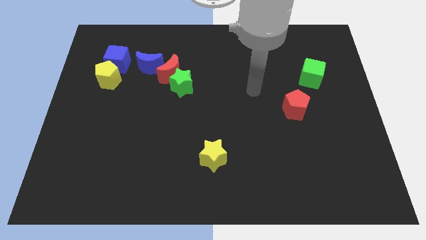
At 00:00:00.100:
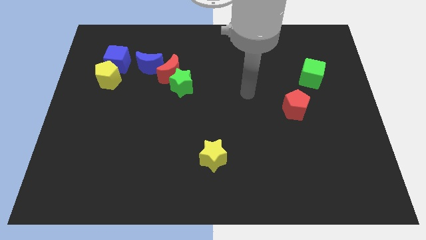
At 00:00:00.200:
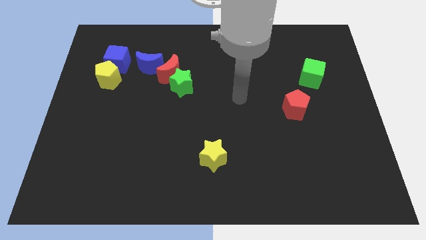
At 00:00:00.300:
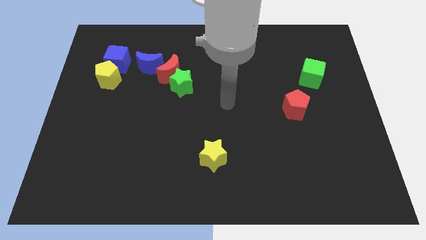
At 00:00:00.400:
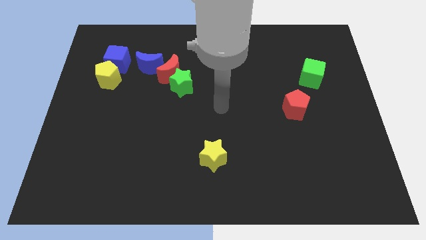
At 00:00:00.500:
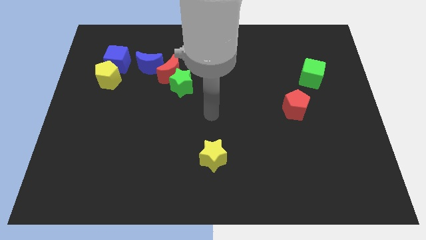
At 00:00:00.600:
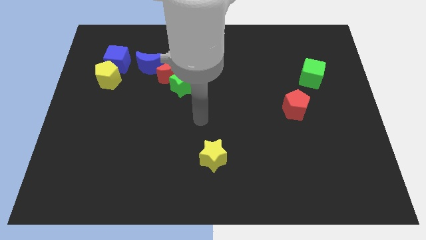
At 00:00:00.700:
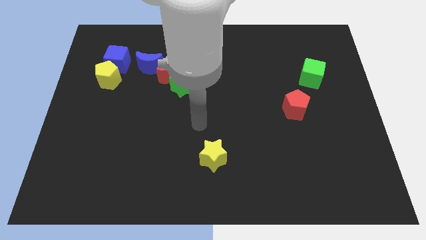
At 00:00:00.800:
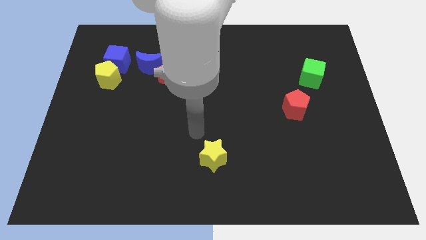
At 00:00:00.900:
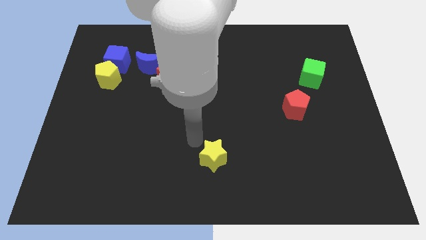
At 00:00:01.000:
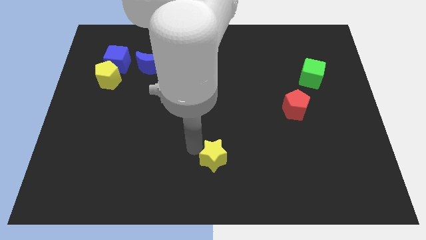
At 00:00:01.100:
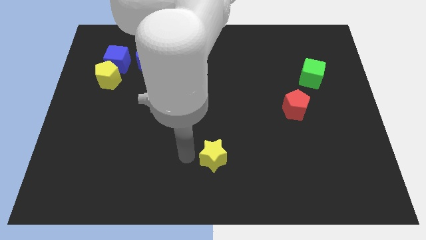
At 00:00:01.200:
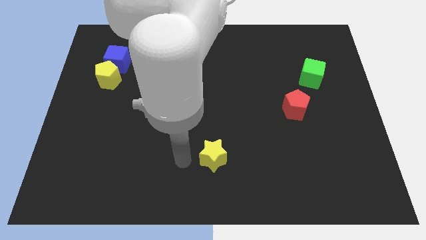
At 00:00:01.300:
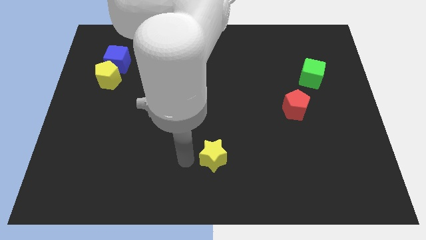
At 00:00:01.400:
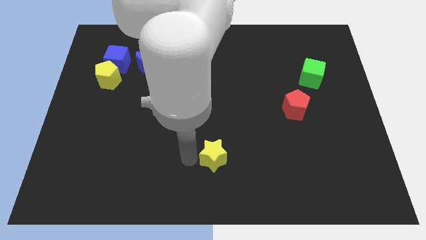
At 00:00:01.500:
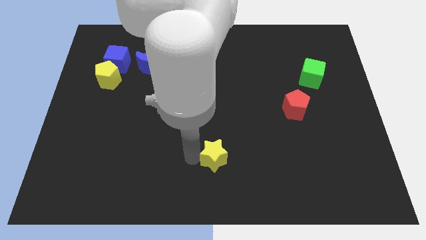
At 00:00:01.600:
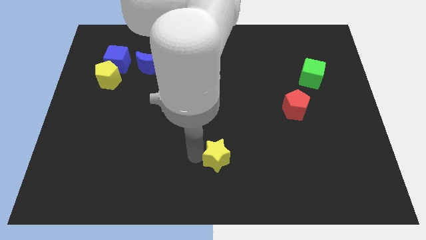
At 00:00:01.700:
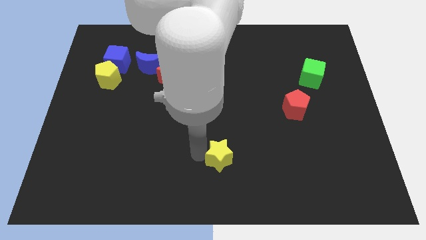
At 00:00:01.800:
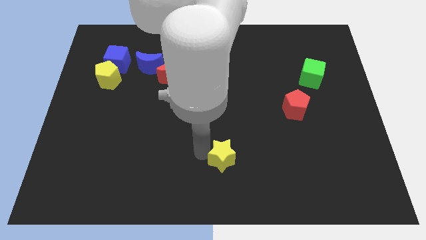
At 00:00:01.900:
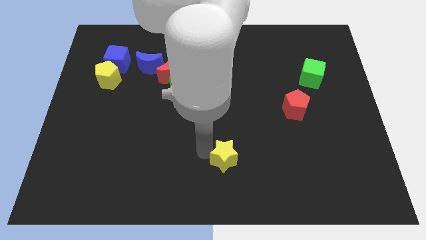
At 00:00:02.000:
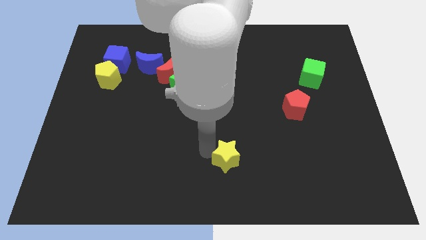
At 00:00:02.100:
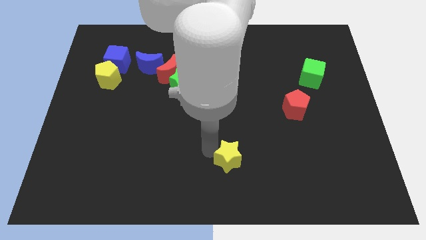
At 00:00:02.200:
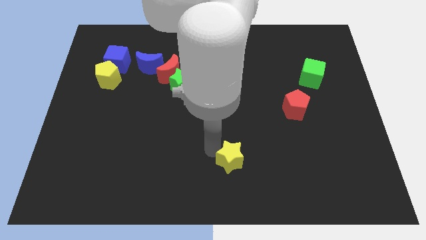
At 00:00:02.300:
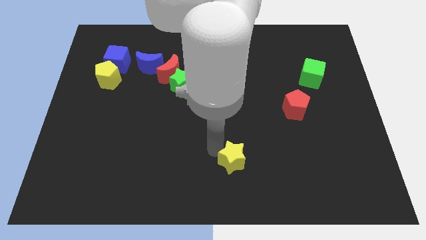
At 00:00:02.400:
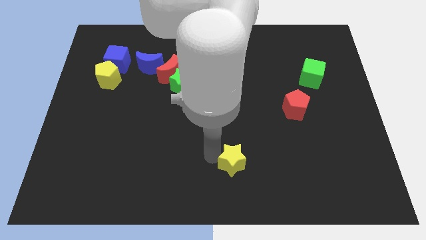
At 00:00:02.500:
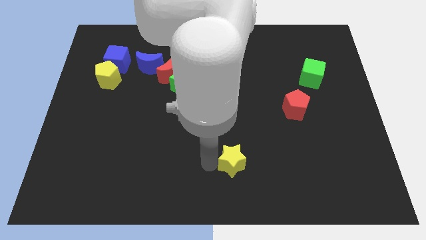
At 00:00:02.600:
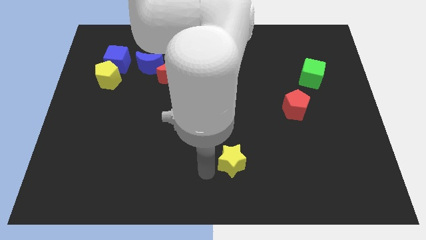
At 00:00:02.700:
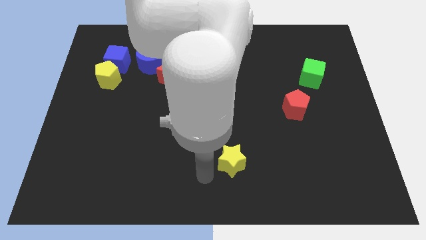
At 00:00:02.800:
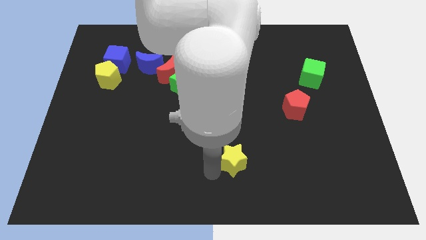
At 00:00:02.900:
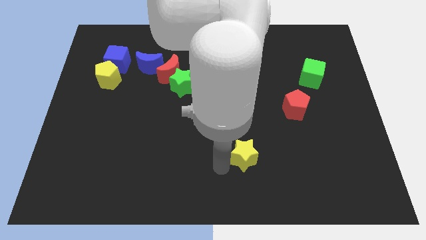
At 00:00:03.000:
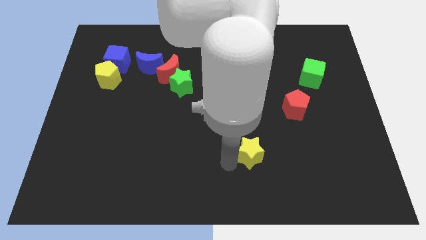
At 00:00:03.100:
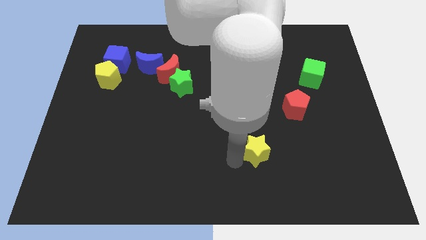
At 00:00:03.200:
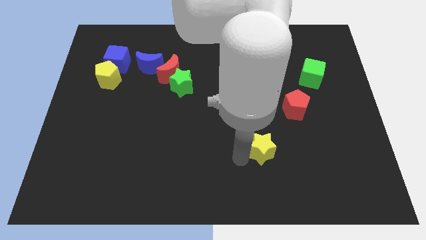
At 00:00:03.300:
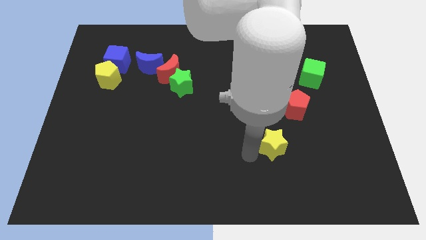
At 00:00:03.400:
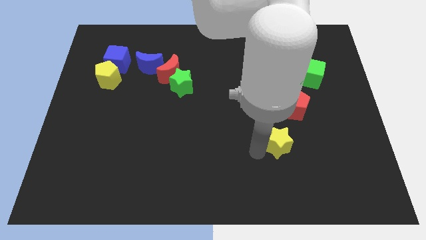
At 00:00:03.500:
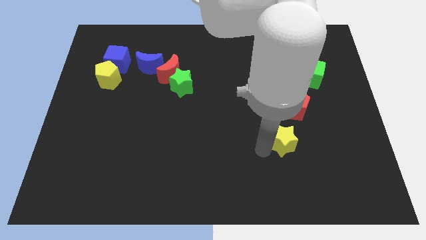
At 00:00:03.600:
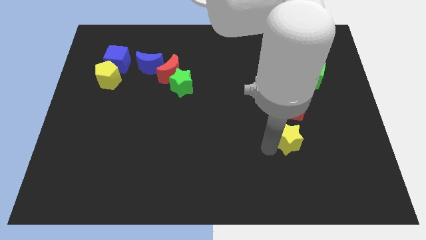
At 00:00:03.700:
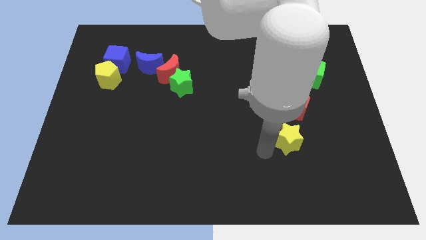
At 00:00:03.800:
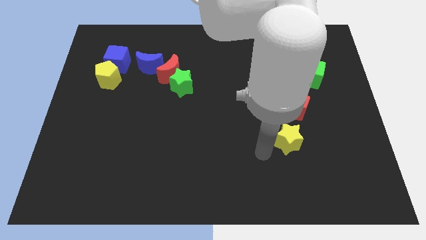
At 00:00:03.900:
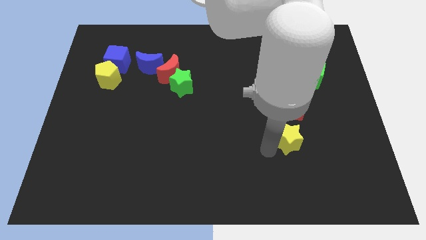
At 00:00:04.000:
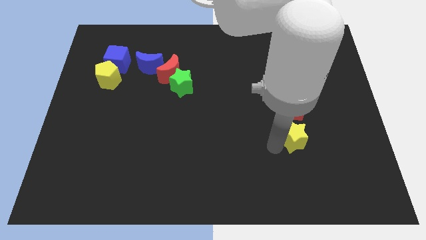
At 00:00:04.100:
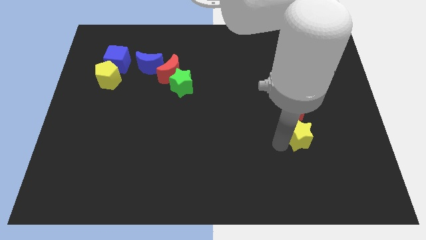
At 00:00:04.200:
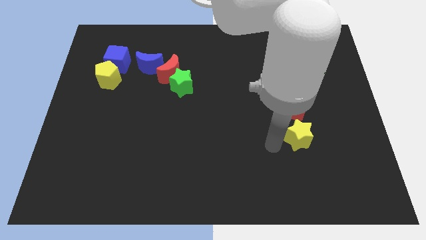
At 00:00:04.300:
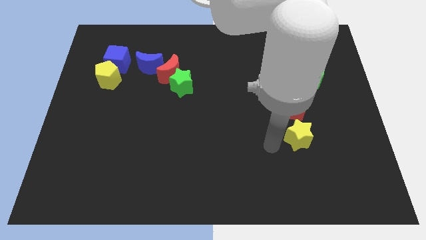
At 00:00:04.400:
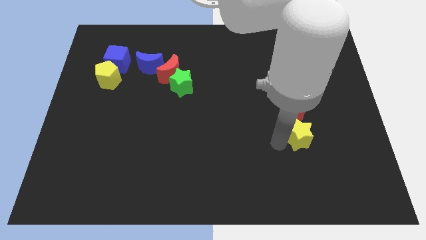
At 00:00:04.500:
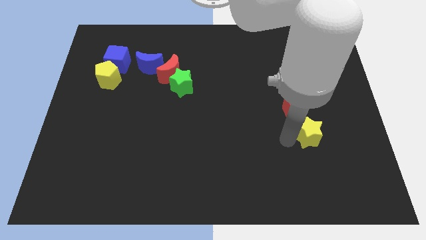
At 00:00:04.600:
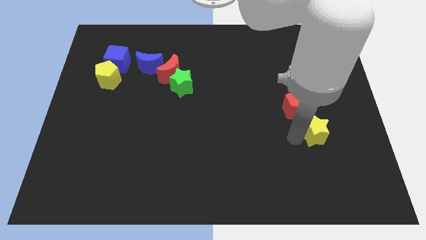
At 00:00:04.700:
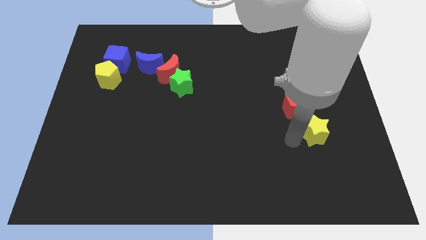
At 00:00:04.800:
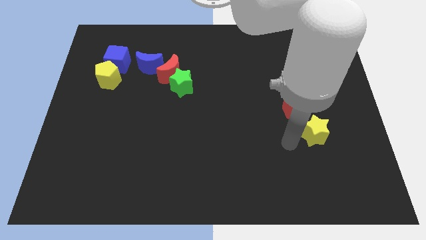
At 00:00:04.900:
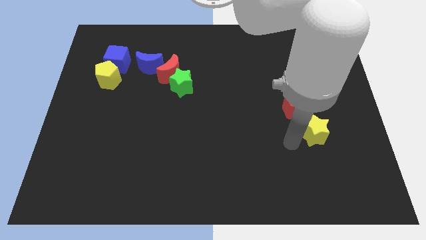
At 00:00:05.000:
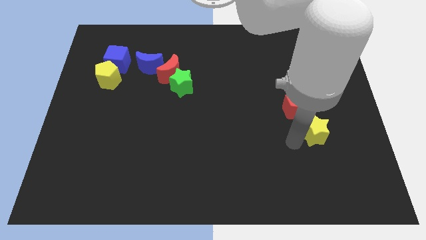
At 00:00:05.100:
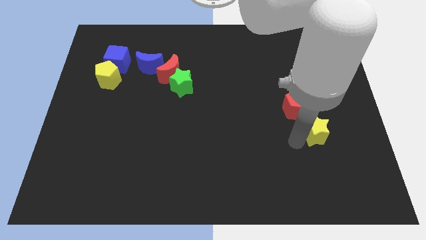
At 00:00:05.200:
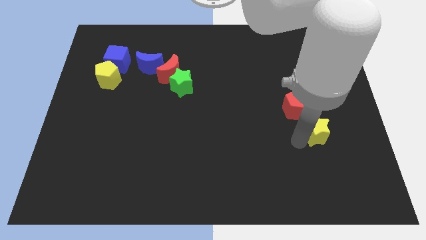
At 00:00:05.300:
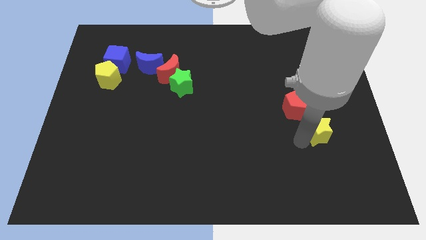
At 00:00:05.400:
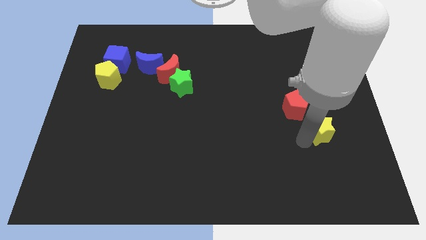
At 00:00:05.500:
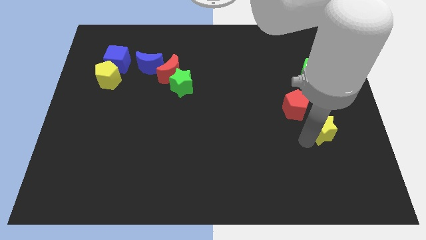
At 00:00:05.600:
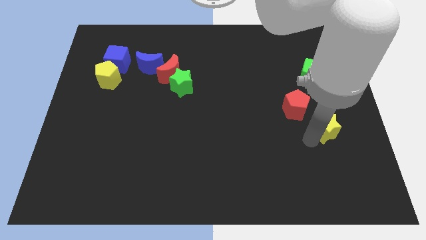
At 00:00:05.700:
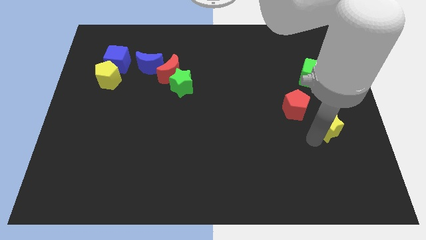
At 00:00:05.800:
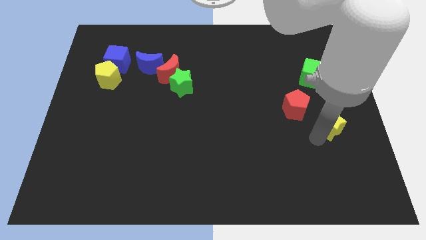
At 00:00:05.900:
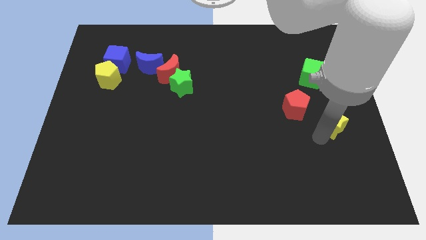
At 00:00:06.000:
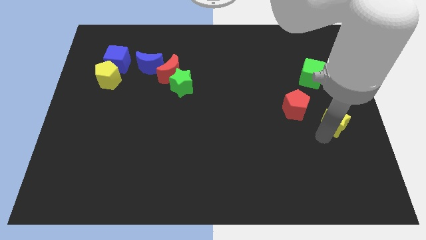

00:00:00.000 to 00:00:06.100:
slide the yellow star to the center right

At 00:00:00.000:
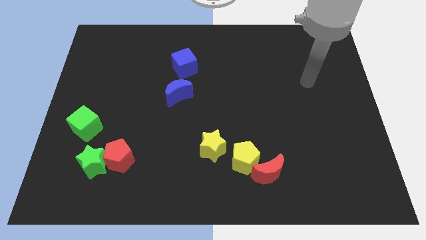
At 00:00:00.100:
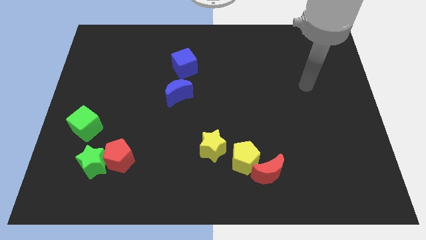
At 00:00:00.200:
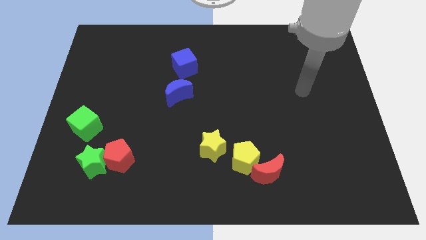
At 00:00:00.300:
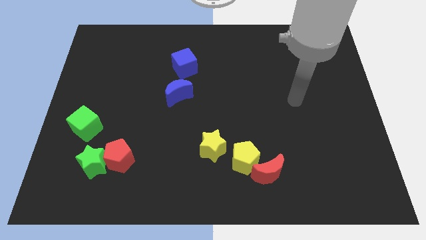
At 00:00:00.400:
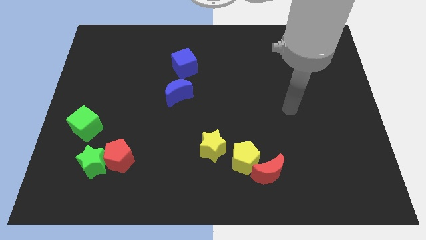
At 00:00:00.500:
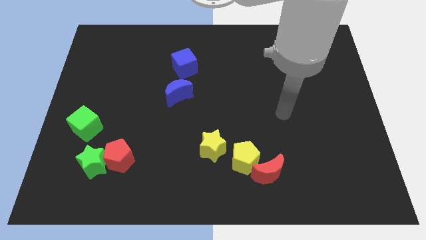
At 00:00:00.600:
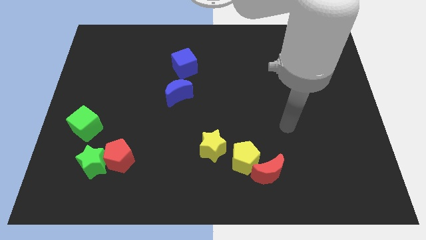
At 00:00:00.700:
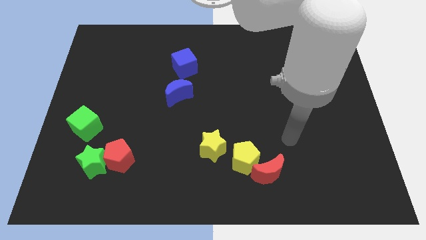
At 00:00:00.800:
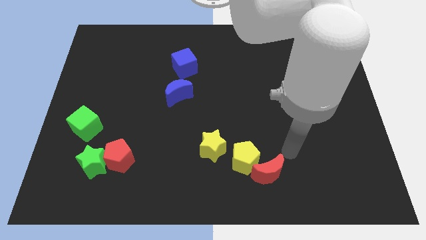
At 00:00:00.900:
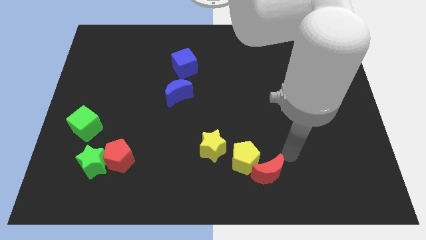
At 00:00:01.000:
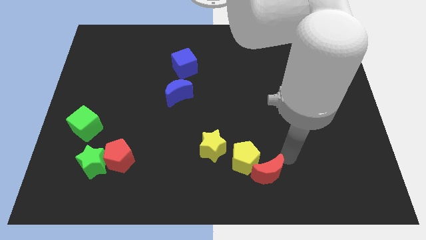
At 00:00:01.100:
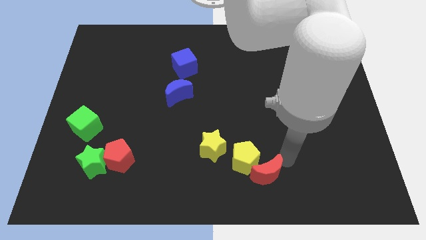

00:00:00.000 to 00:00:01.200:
slide the red moon to the bottom side
